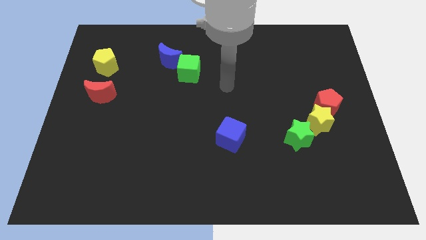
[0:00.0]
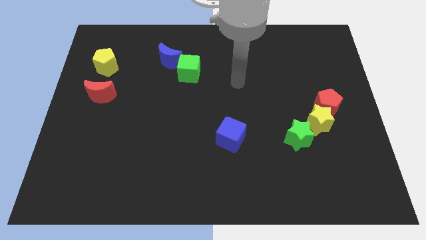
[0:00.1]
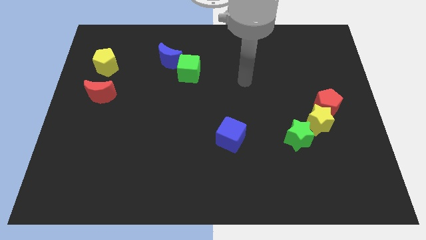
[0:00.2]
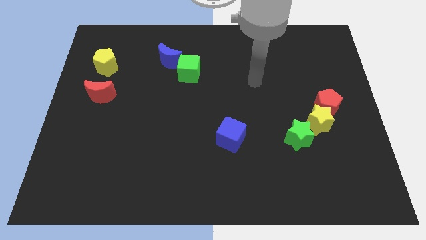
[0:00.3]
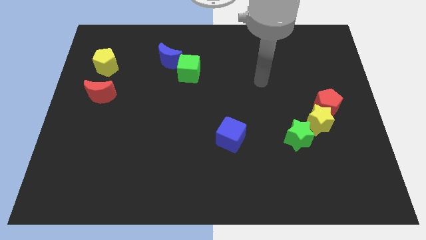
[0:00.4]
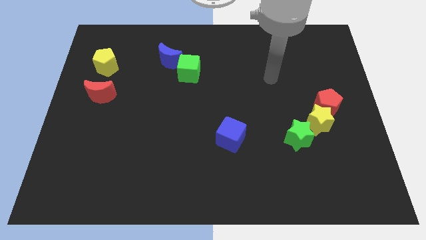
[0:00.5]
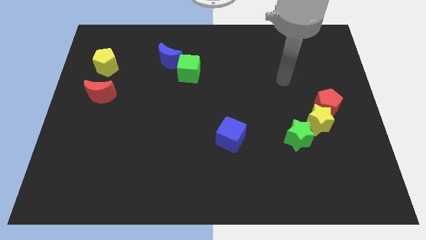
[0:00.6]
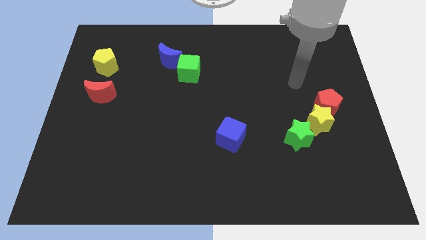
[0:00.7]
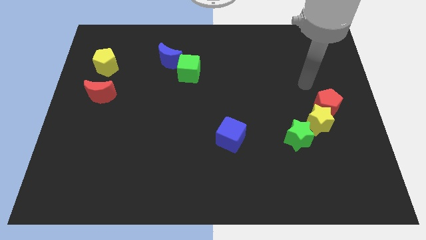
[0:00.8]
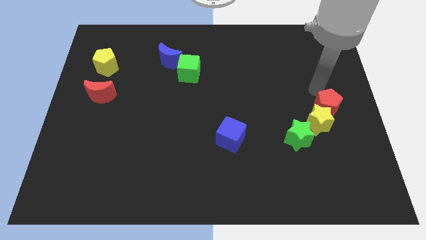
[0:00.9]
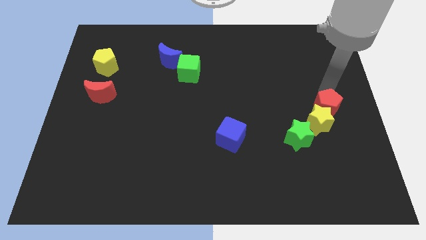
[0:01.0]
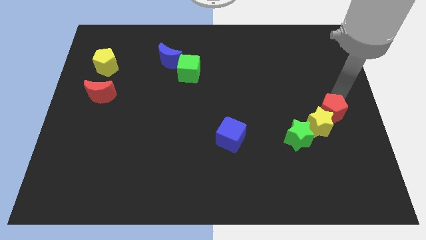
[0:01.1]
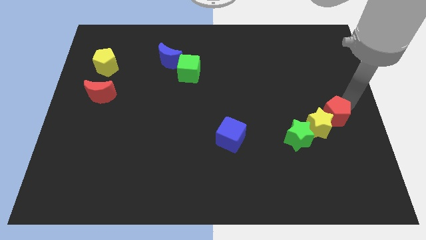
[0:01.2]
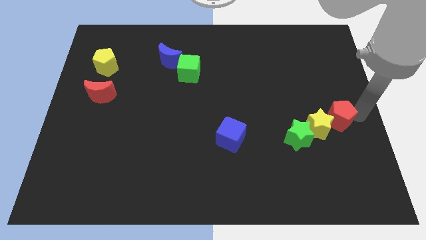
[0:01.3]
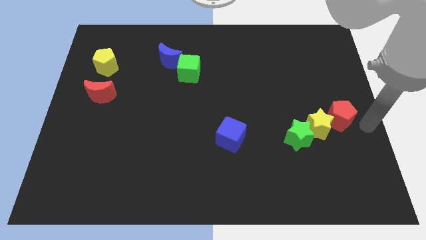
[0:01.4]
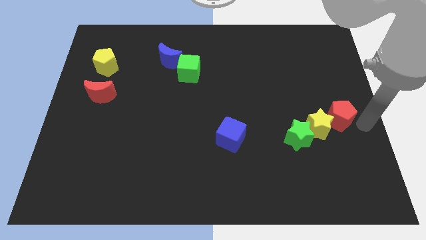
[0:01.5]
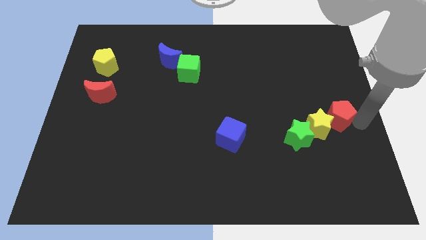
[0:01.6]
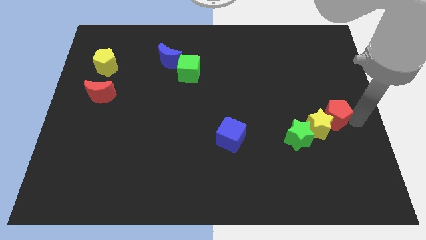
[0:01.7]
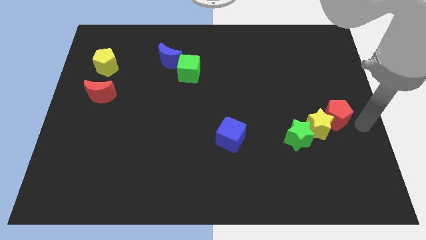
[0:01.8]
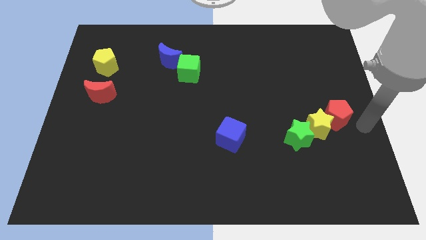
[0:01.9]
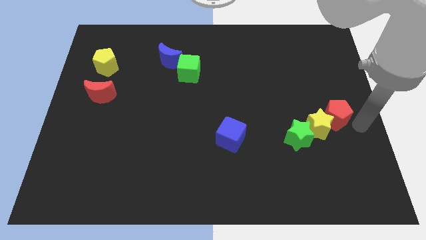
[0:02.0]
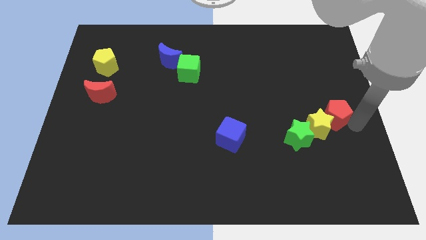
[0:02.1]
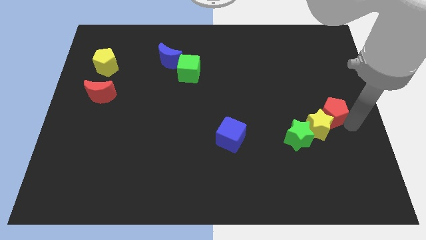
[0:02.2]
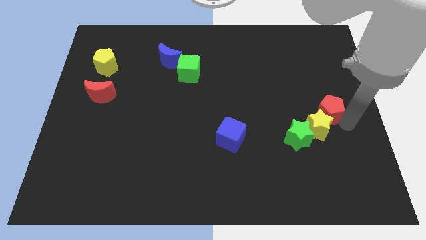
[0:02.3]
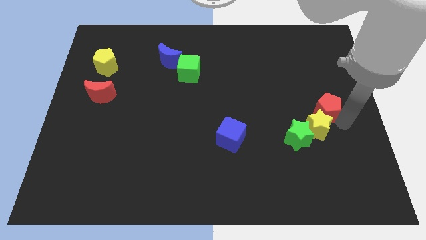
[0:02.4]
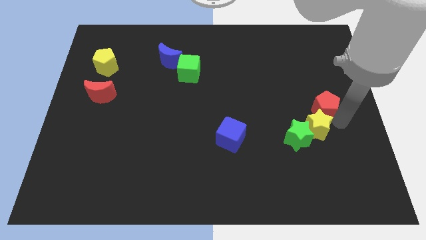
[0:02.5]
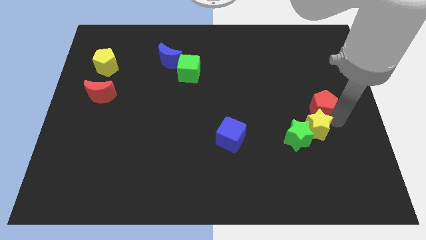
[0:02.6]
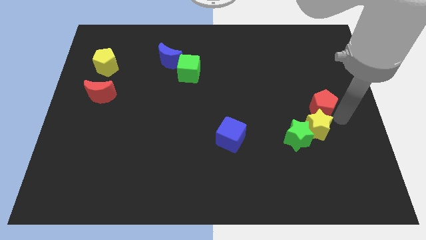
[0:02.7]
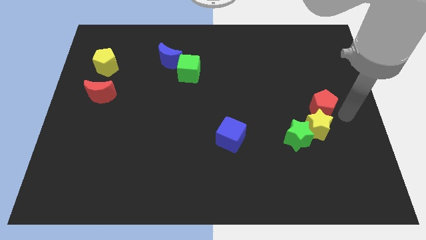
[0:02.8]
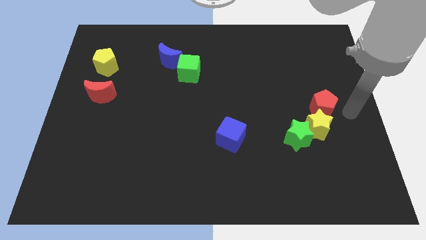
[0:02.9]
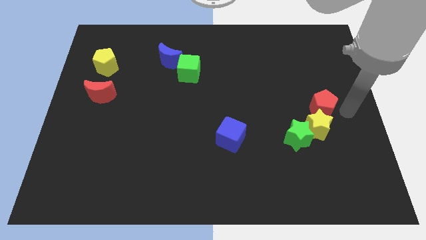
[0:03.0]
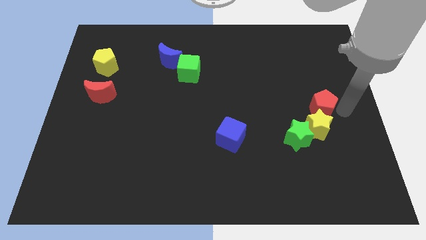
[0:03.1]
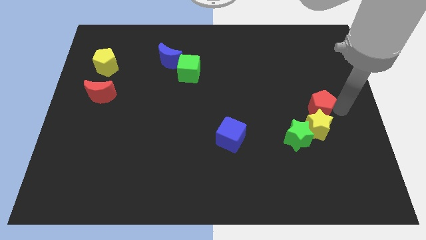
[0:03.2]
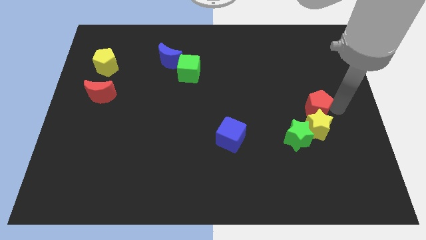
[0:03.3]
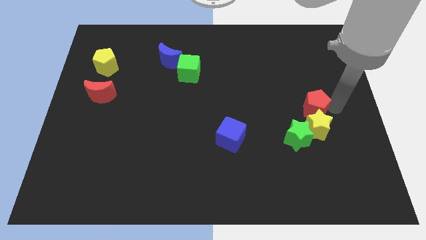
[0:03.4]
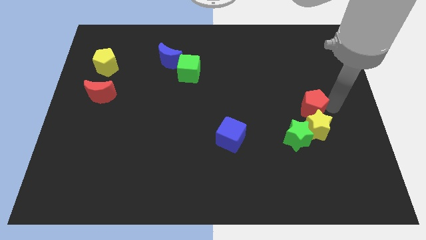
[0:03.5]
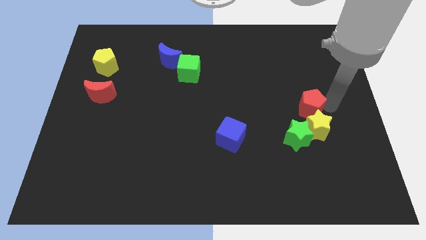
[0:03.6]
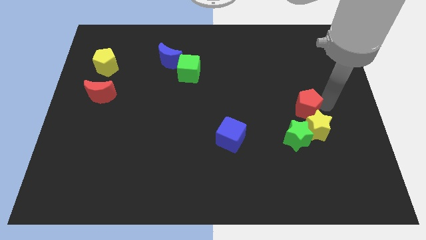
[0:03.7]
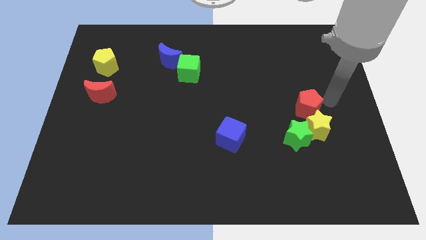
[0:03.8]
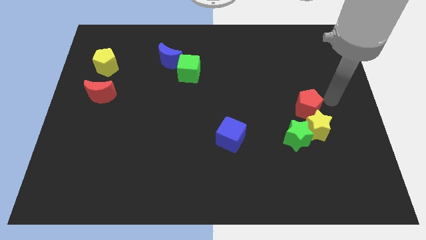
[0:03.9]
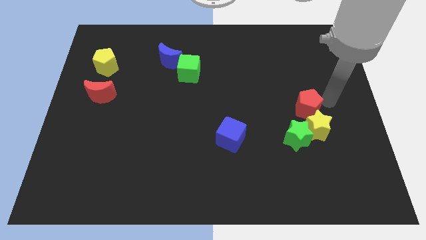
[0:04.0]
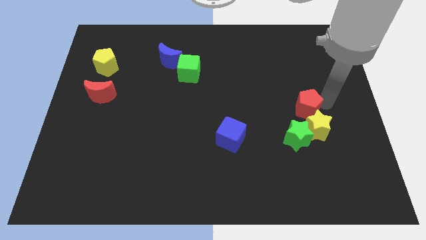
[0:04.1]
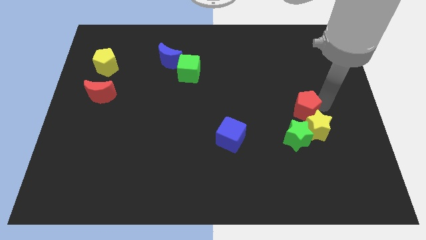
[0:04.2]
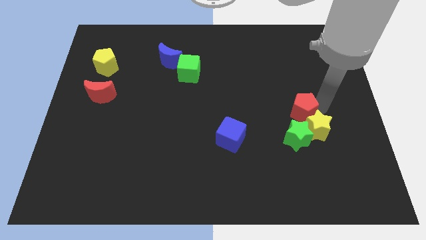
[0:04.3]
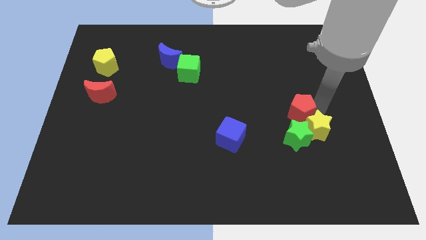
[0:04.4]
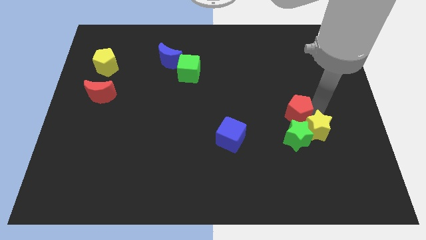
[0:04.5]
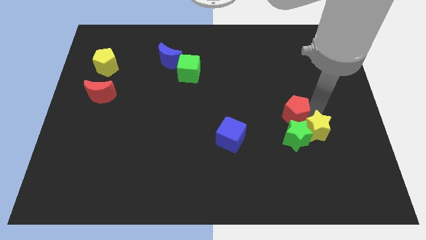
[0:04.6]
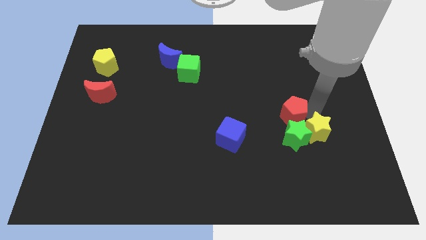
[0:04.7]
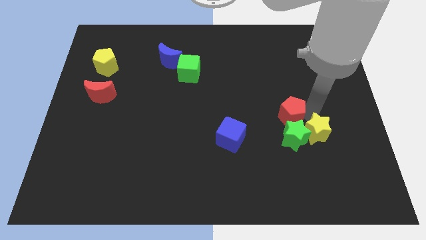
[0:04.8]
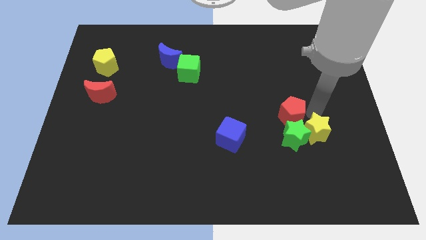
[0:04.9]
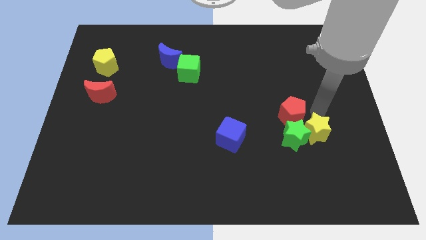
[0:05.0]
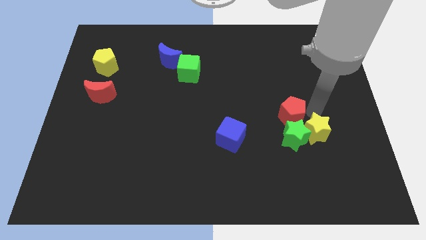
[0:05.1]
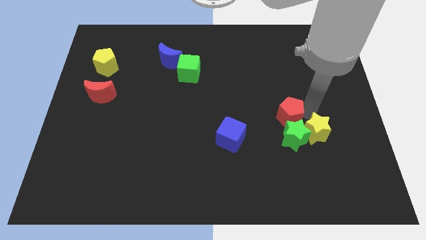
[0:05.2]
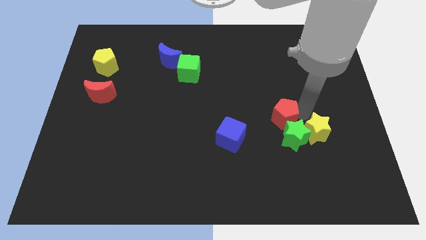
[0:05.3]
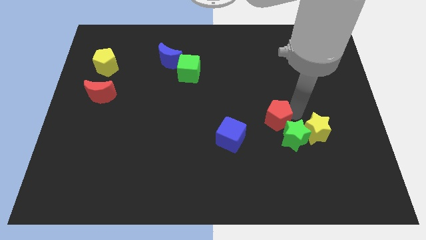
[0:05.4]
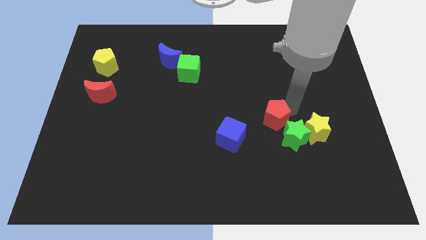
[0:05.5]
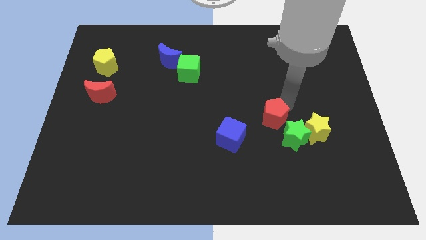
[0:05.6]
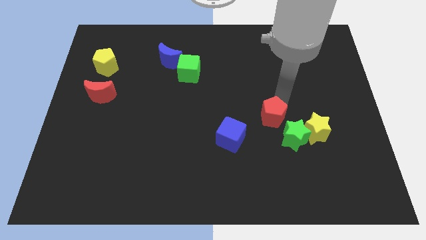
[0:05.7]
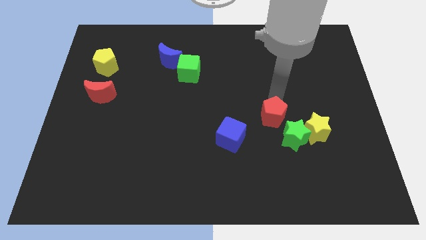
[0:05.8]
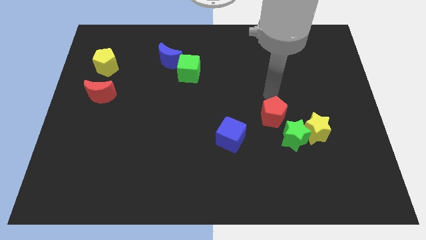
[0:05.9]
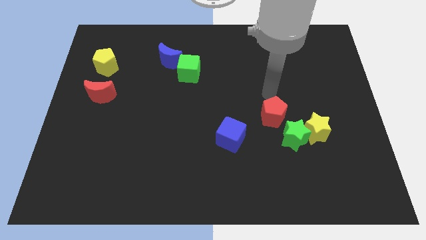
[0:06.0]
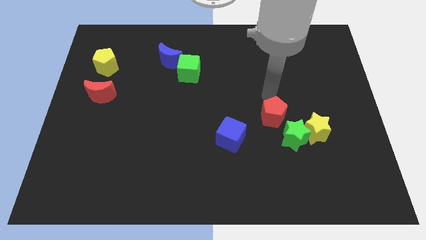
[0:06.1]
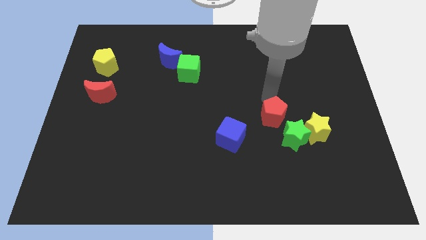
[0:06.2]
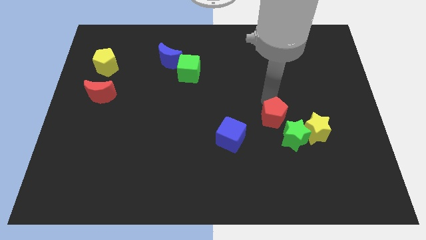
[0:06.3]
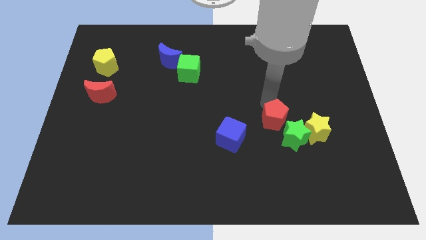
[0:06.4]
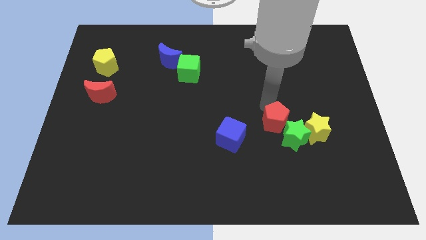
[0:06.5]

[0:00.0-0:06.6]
slide the red pentagon right of the blue cube

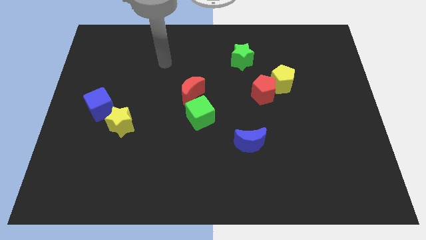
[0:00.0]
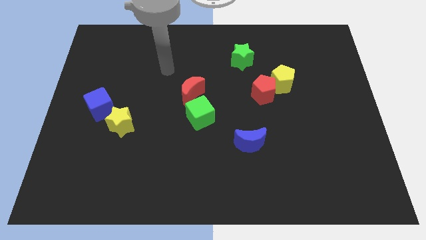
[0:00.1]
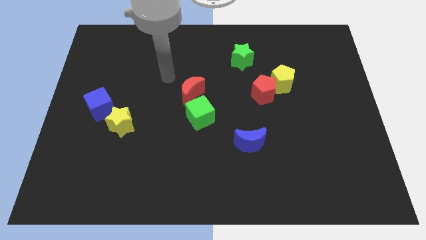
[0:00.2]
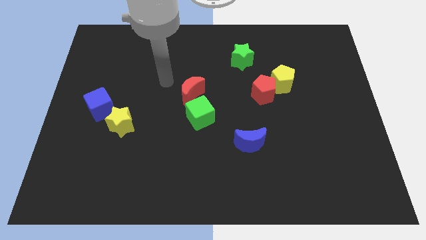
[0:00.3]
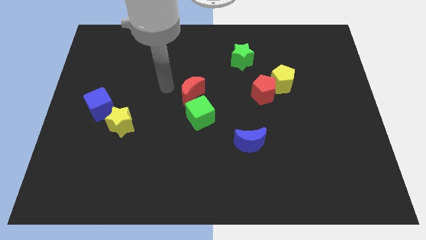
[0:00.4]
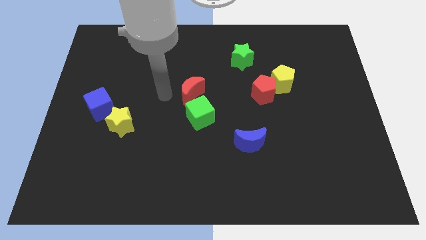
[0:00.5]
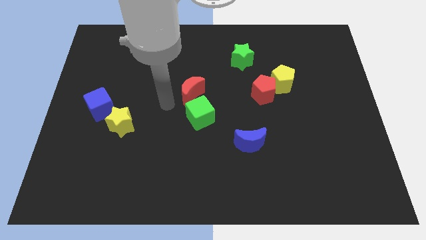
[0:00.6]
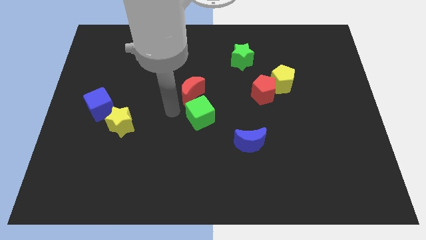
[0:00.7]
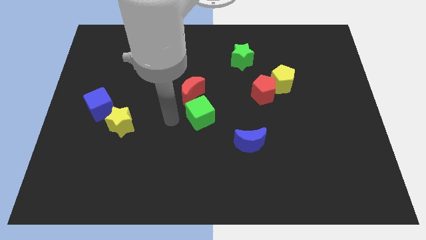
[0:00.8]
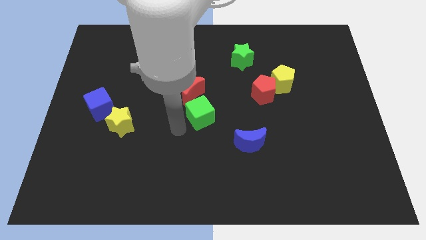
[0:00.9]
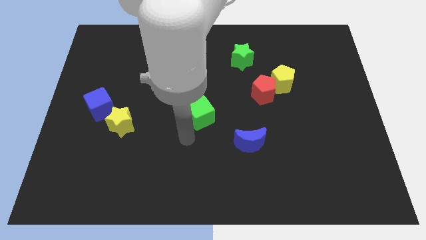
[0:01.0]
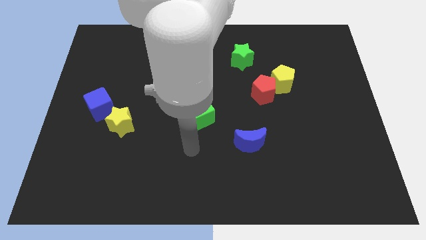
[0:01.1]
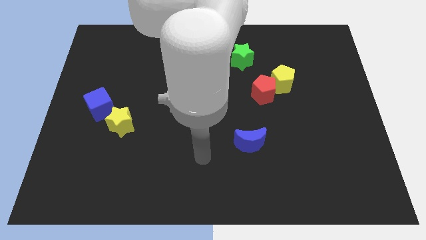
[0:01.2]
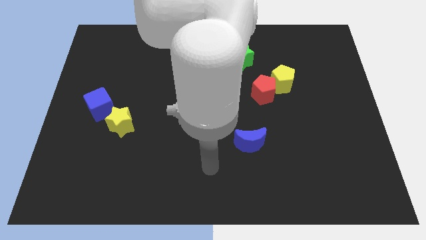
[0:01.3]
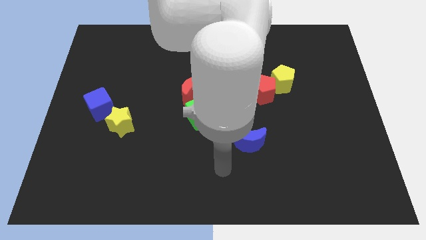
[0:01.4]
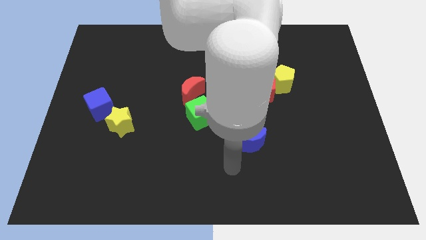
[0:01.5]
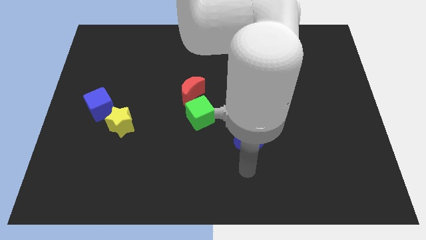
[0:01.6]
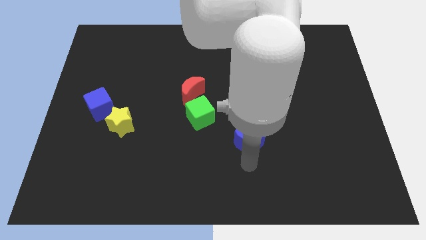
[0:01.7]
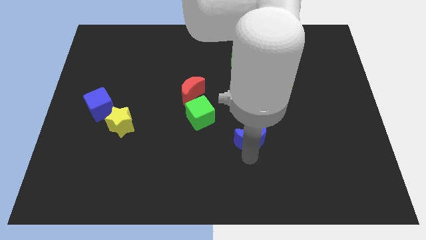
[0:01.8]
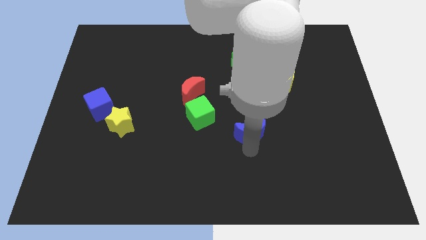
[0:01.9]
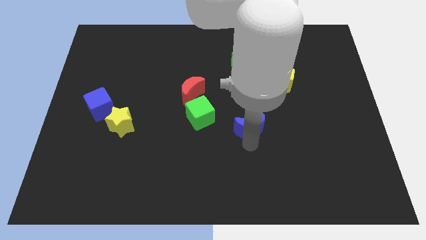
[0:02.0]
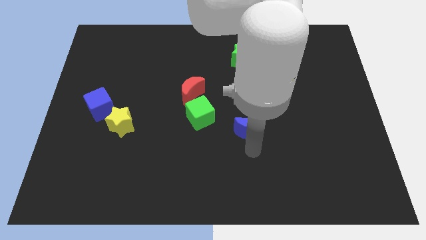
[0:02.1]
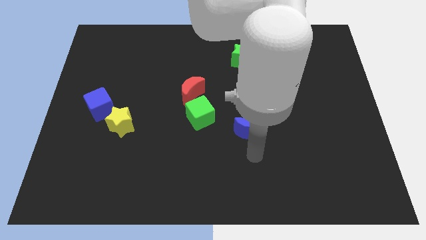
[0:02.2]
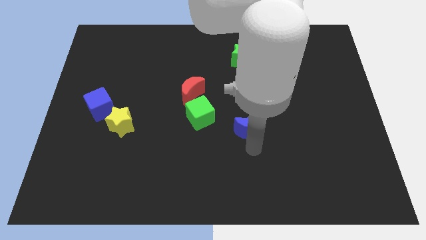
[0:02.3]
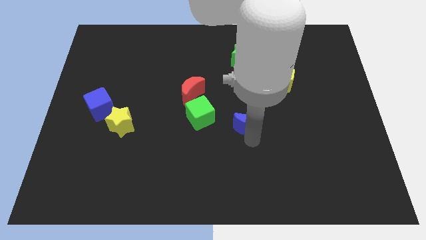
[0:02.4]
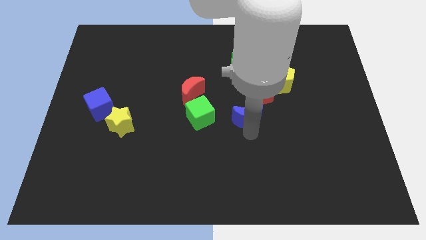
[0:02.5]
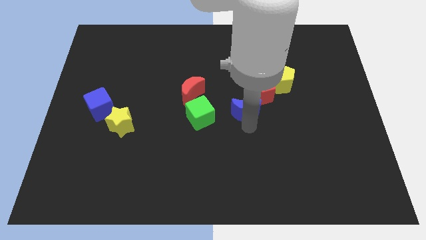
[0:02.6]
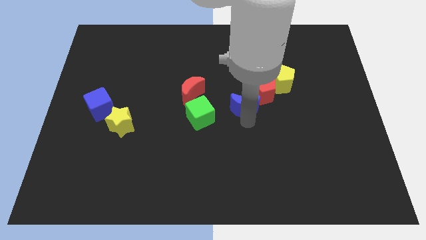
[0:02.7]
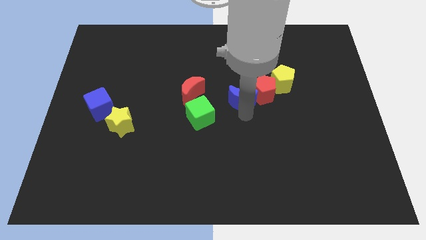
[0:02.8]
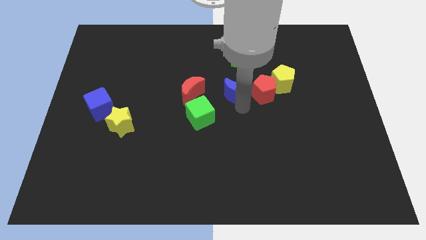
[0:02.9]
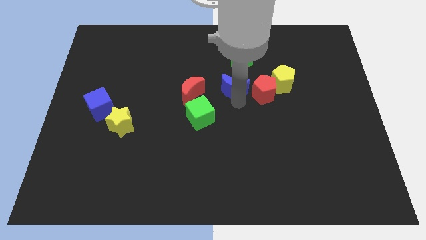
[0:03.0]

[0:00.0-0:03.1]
move the blue moon to the top left of the red pentagon
